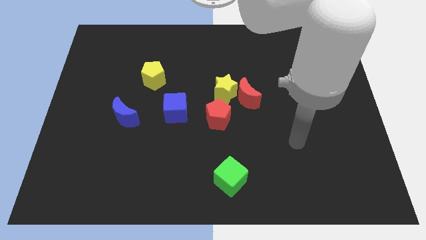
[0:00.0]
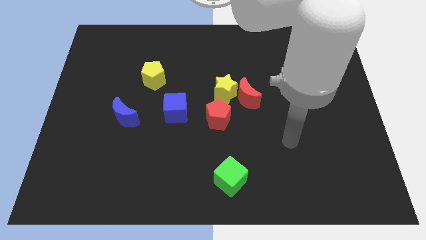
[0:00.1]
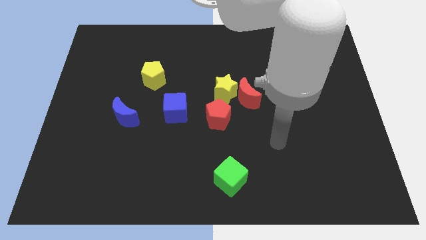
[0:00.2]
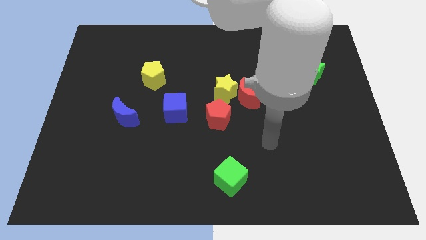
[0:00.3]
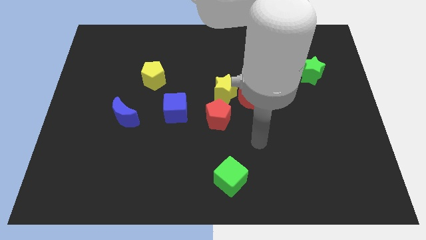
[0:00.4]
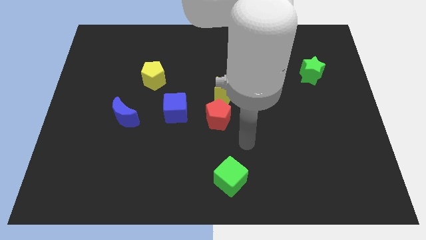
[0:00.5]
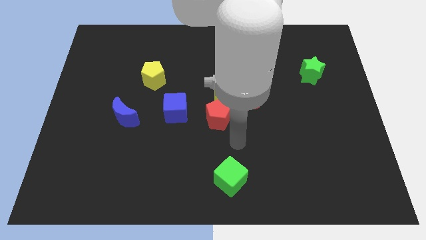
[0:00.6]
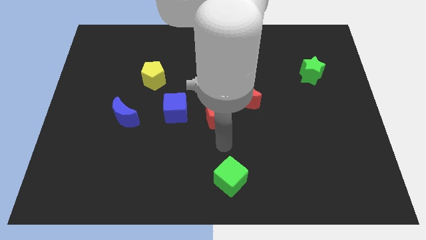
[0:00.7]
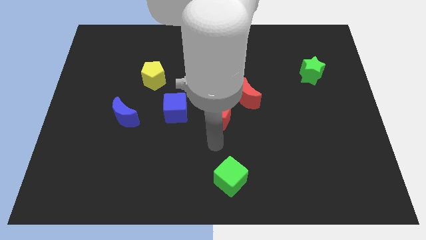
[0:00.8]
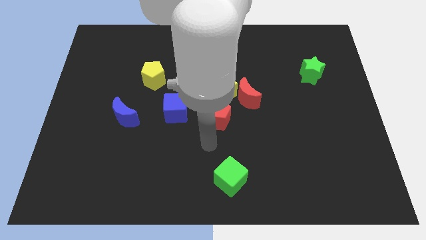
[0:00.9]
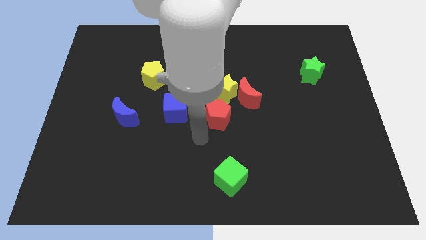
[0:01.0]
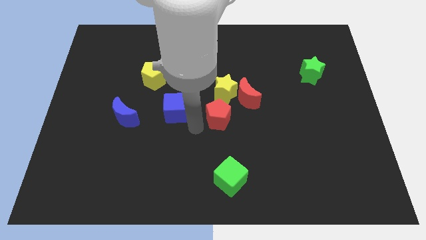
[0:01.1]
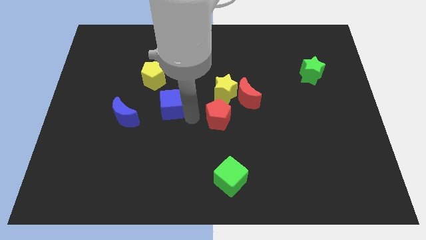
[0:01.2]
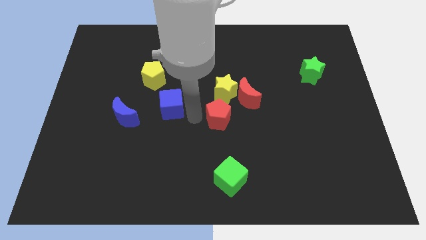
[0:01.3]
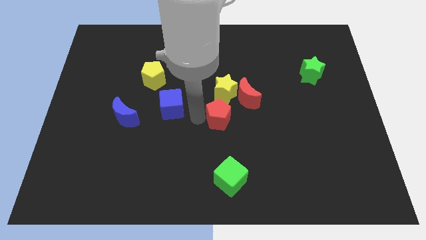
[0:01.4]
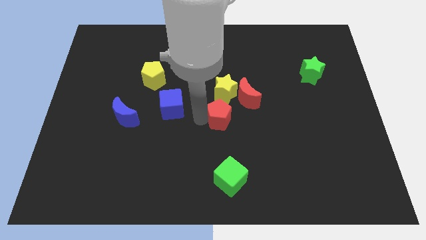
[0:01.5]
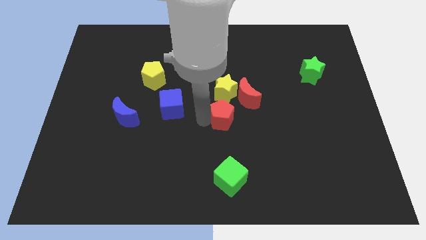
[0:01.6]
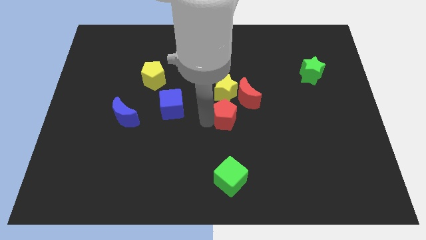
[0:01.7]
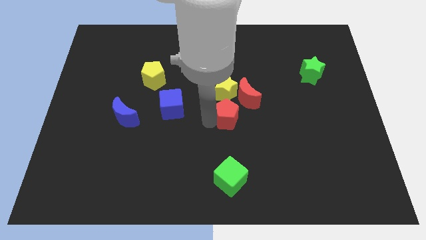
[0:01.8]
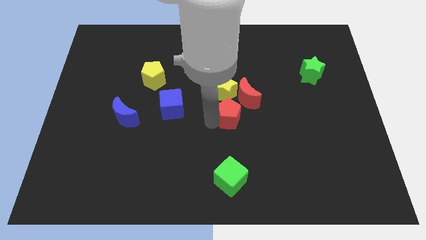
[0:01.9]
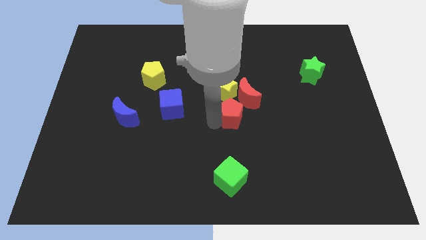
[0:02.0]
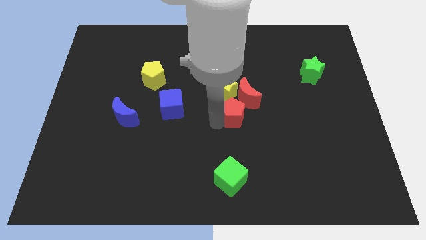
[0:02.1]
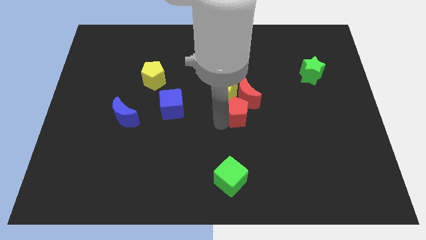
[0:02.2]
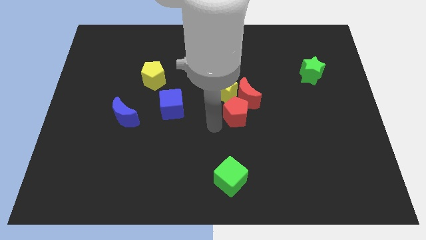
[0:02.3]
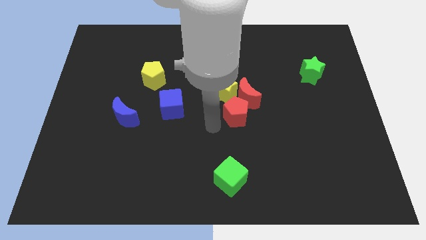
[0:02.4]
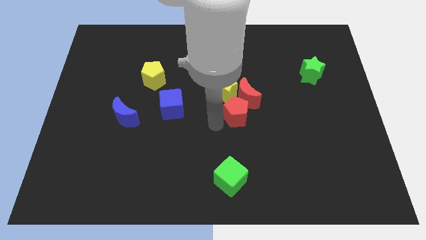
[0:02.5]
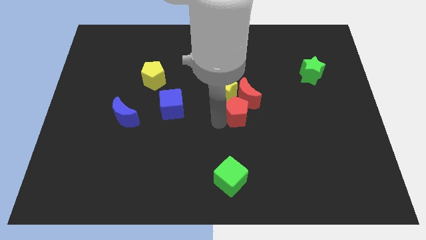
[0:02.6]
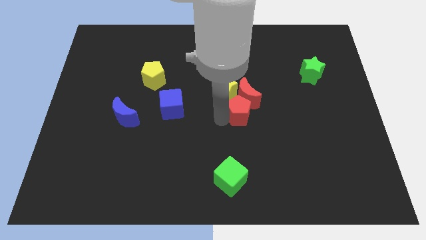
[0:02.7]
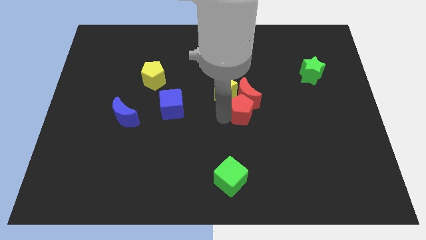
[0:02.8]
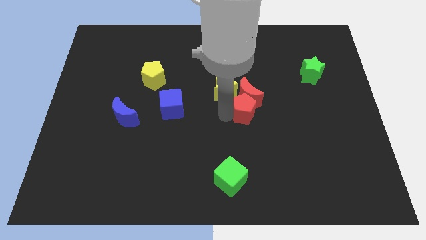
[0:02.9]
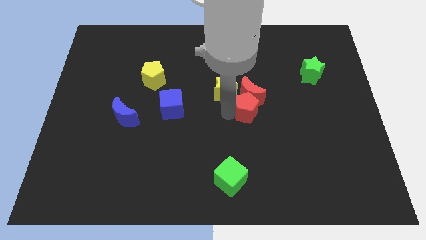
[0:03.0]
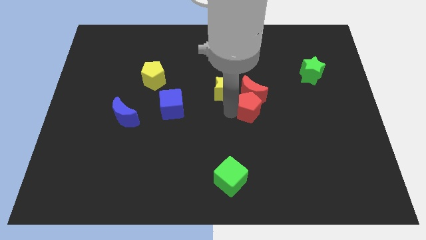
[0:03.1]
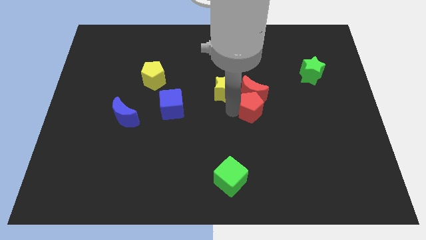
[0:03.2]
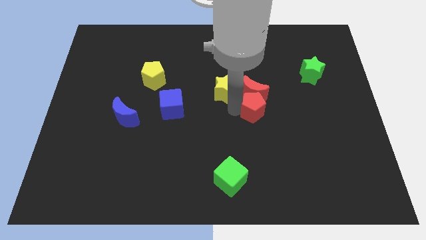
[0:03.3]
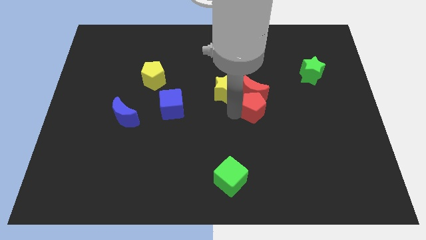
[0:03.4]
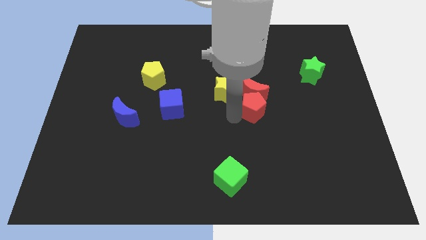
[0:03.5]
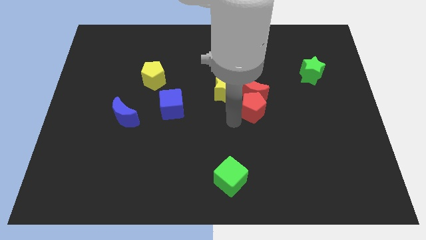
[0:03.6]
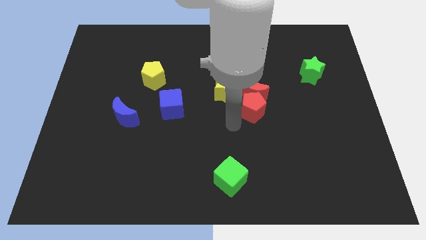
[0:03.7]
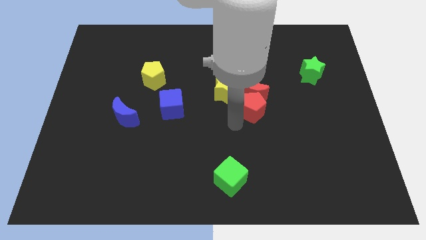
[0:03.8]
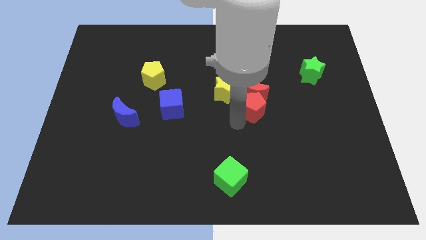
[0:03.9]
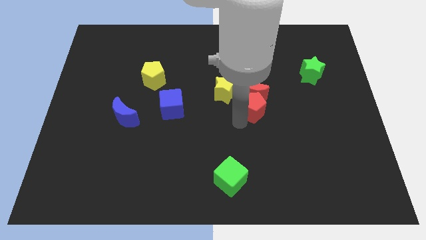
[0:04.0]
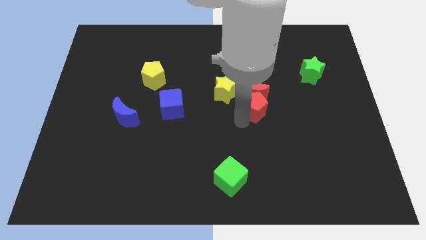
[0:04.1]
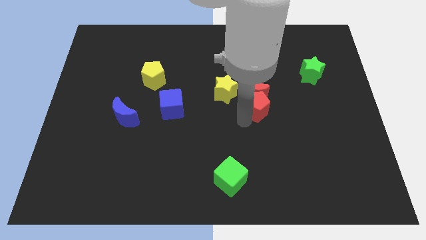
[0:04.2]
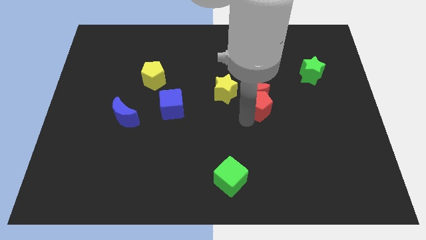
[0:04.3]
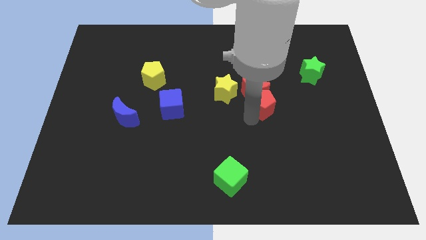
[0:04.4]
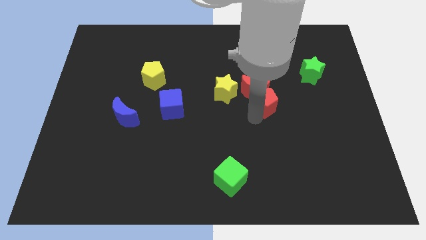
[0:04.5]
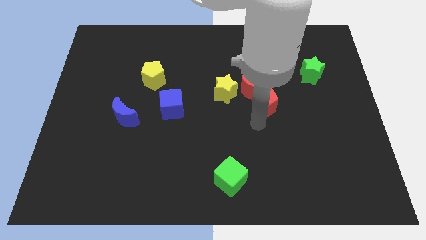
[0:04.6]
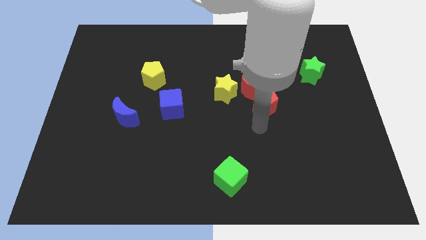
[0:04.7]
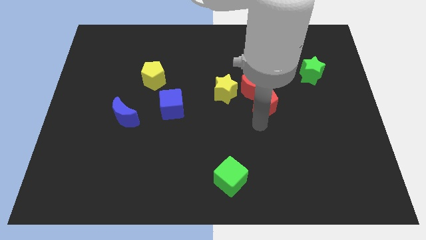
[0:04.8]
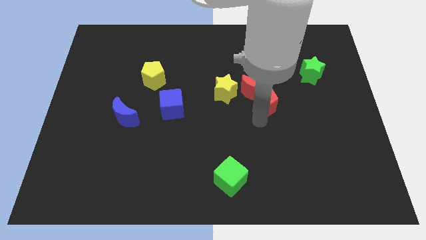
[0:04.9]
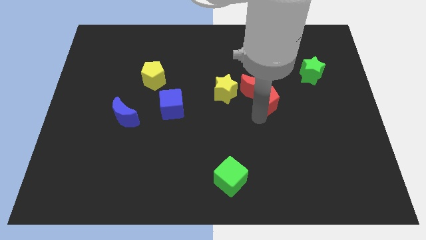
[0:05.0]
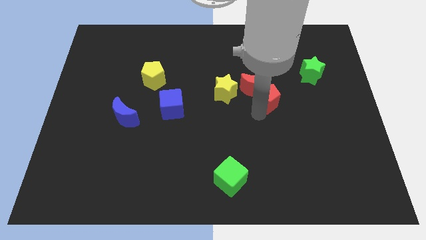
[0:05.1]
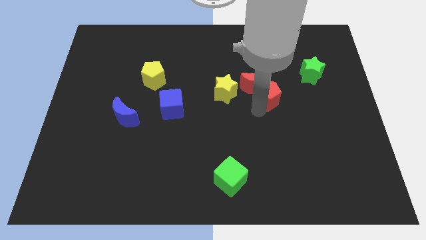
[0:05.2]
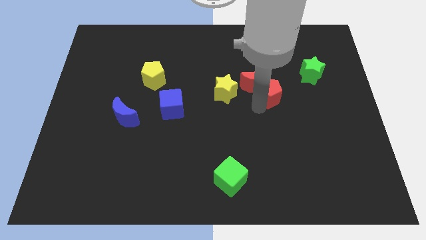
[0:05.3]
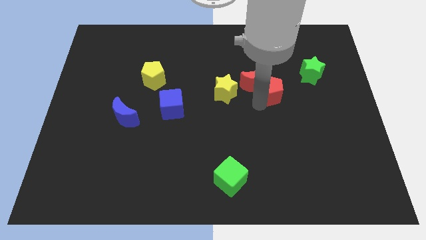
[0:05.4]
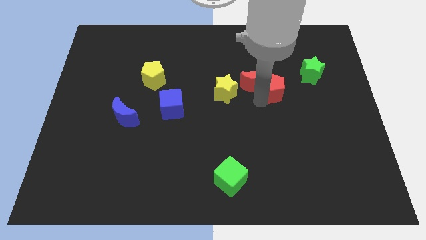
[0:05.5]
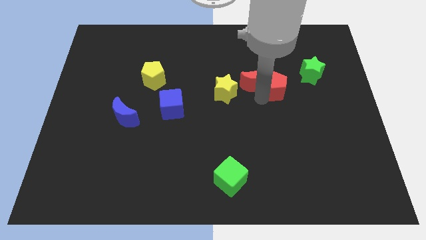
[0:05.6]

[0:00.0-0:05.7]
put the red pentagon diagonally up and to the right of the red moon
